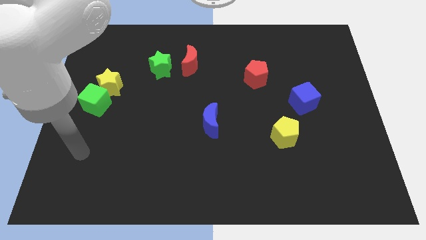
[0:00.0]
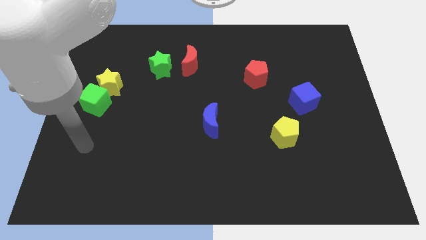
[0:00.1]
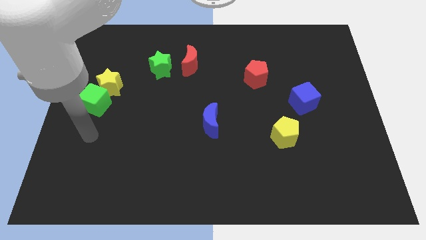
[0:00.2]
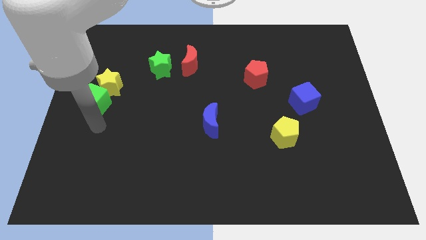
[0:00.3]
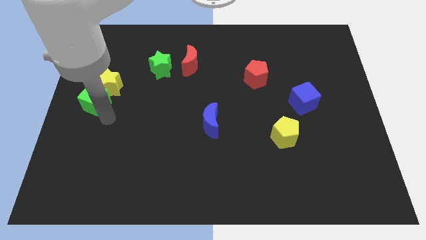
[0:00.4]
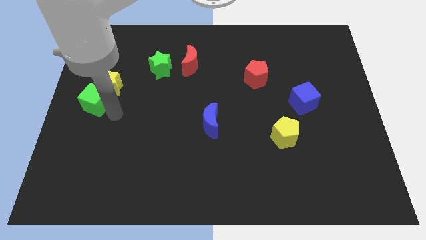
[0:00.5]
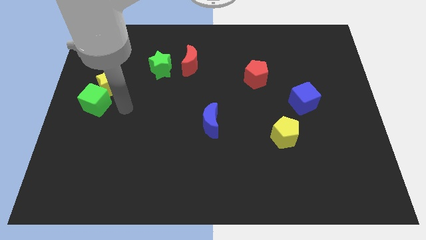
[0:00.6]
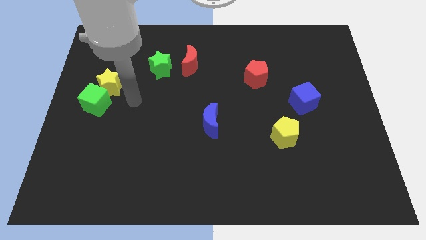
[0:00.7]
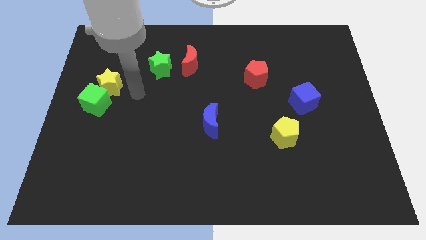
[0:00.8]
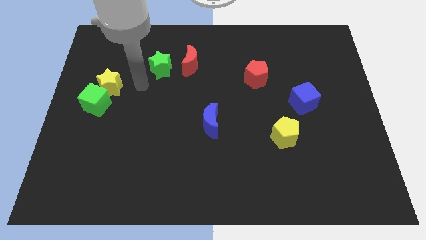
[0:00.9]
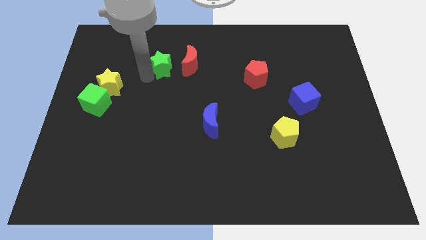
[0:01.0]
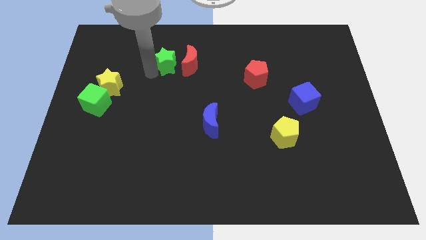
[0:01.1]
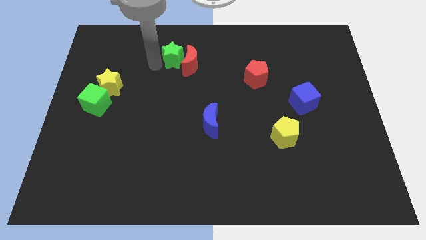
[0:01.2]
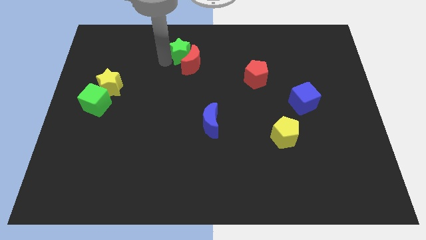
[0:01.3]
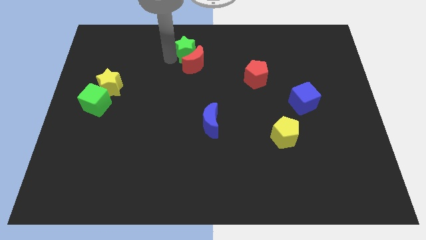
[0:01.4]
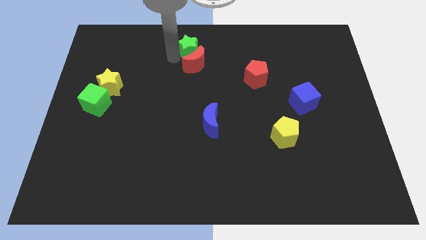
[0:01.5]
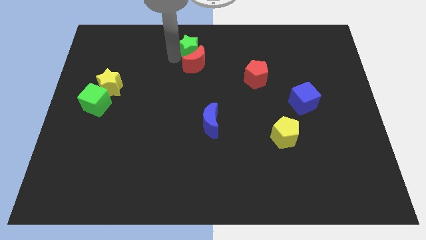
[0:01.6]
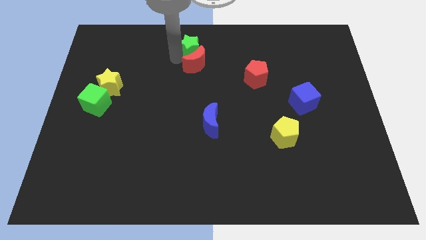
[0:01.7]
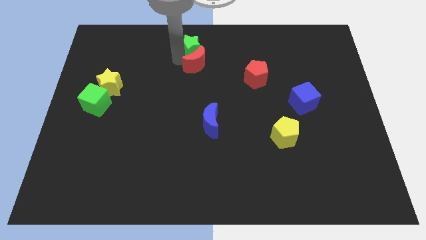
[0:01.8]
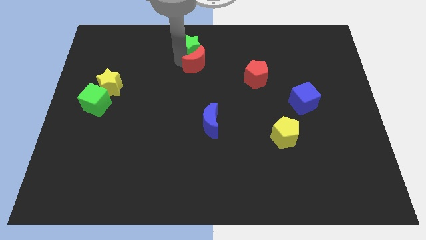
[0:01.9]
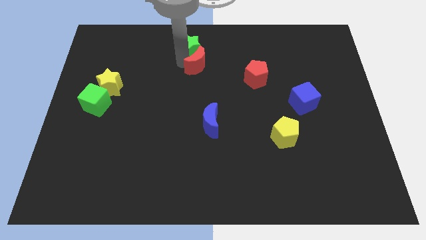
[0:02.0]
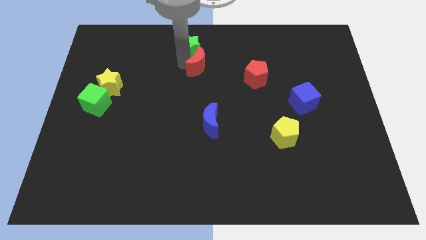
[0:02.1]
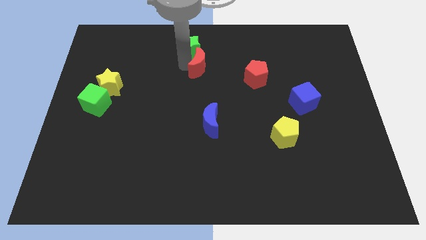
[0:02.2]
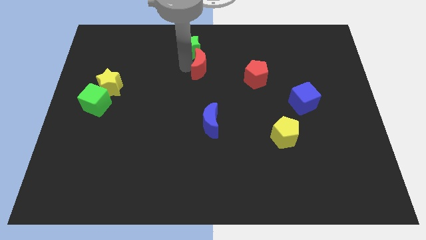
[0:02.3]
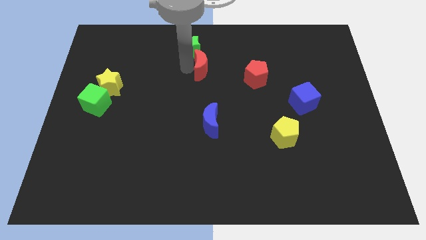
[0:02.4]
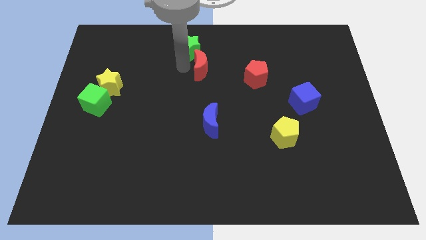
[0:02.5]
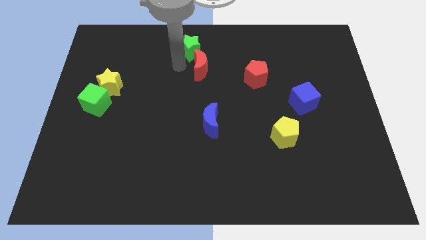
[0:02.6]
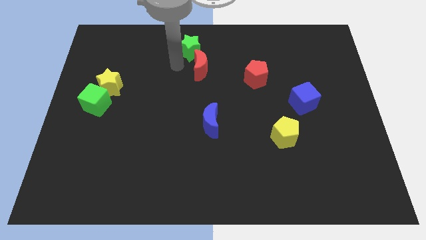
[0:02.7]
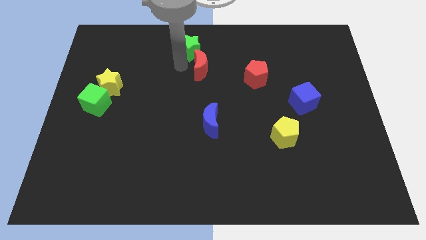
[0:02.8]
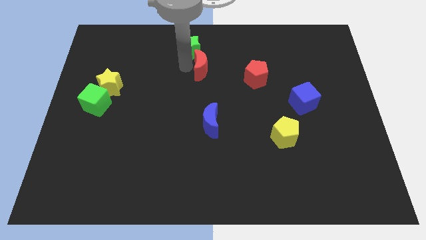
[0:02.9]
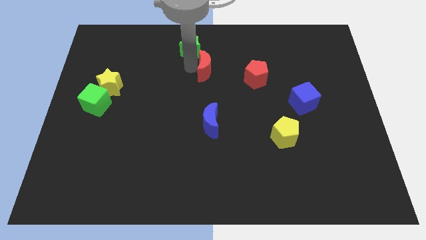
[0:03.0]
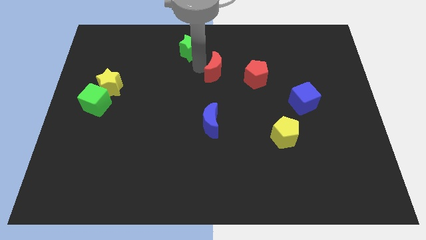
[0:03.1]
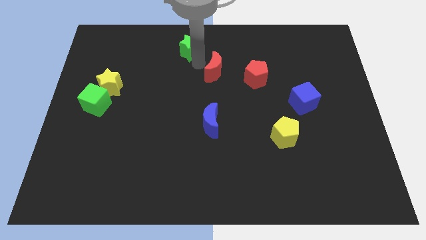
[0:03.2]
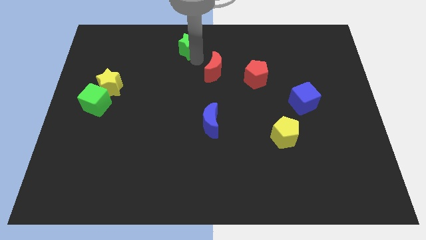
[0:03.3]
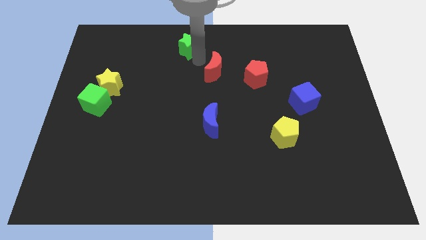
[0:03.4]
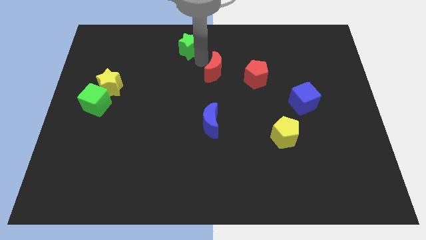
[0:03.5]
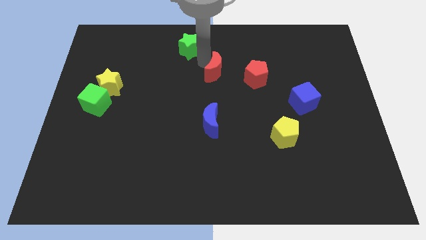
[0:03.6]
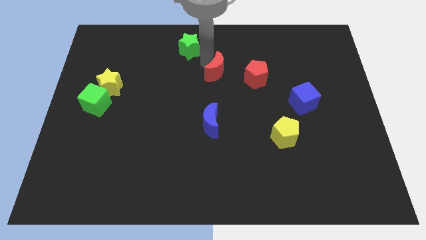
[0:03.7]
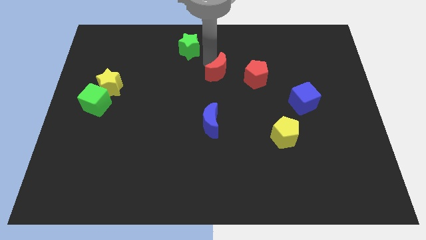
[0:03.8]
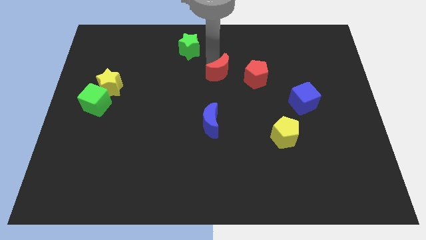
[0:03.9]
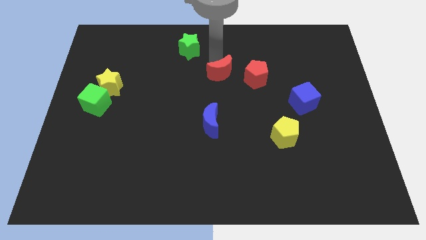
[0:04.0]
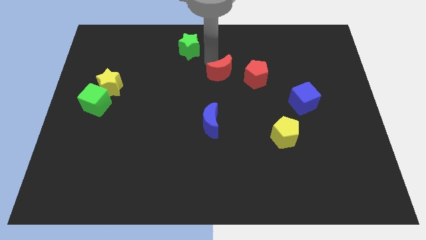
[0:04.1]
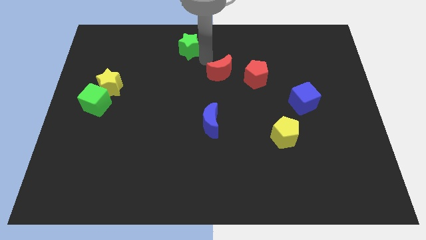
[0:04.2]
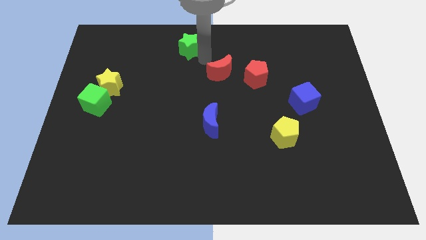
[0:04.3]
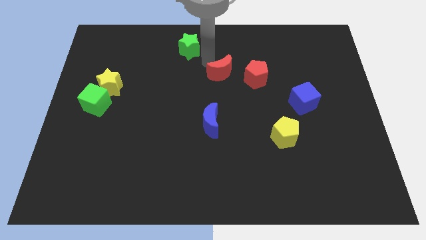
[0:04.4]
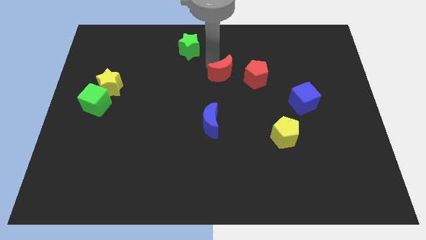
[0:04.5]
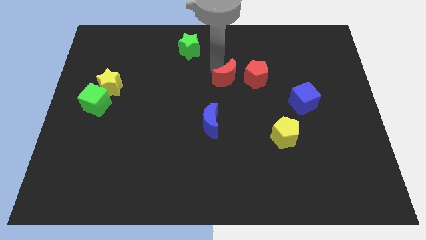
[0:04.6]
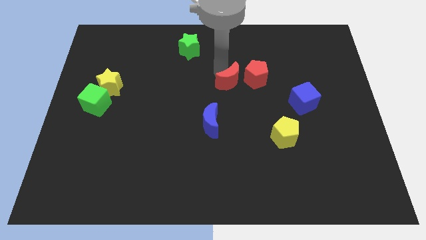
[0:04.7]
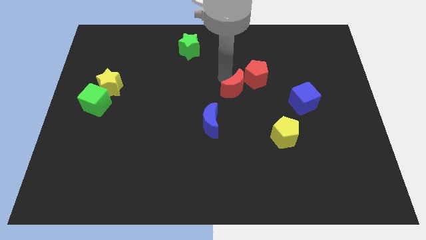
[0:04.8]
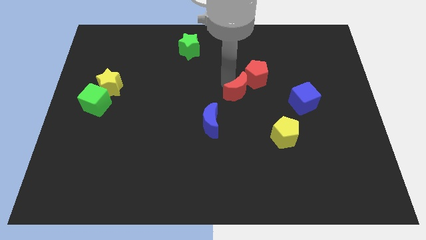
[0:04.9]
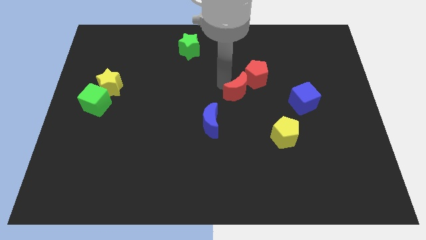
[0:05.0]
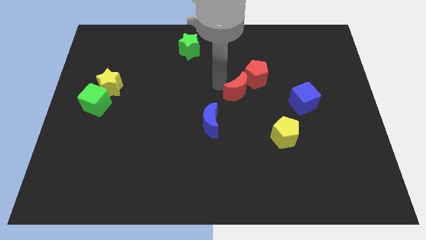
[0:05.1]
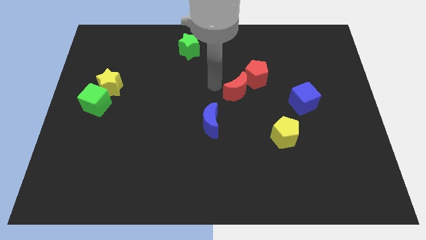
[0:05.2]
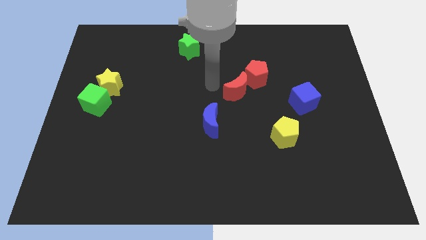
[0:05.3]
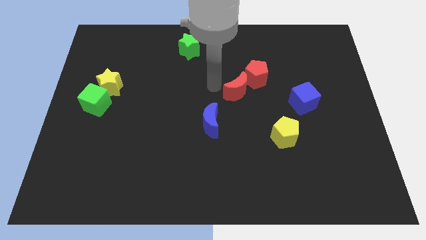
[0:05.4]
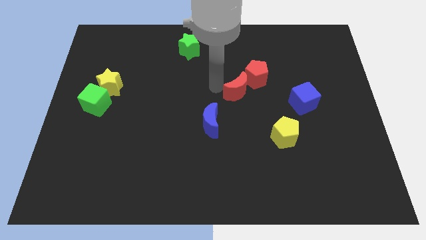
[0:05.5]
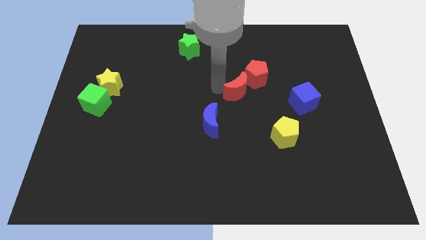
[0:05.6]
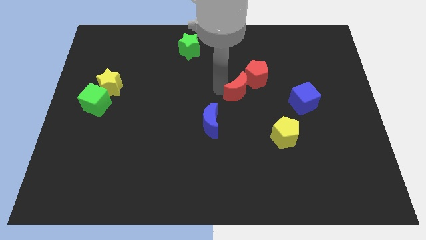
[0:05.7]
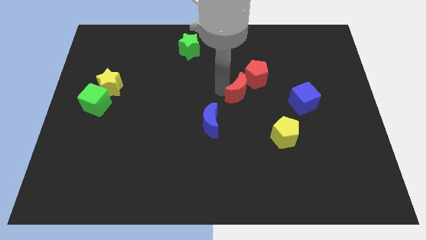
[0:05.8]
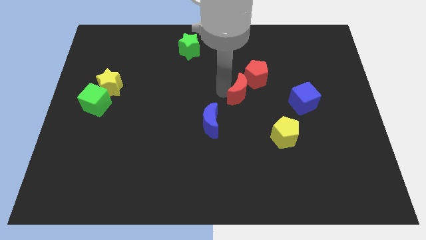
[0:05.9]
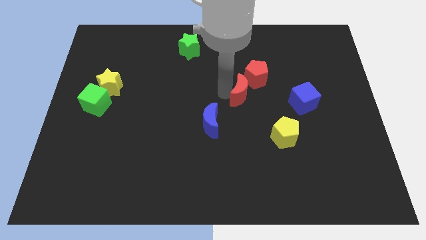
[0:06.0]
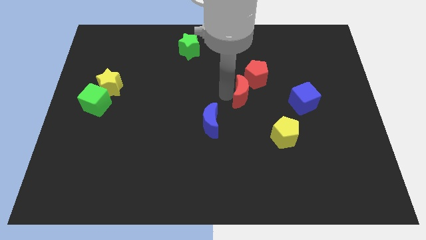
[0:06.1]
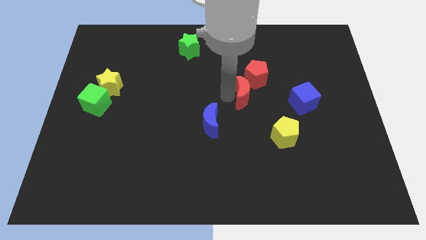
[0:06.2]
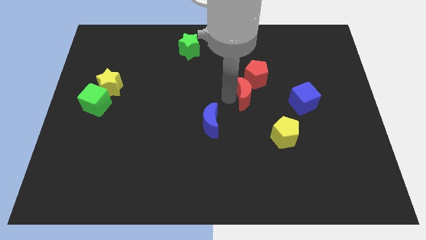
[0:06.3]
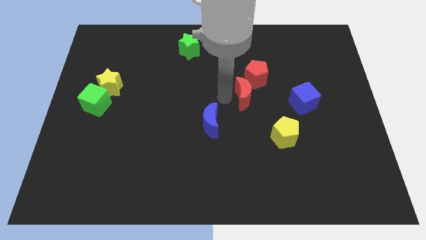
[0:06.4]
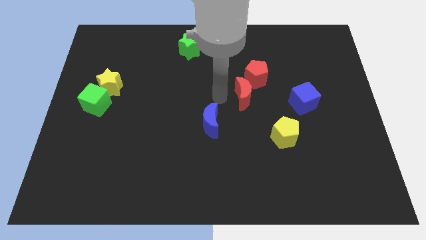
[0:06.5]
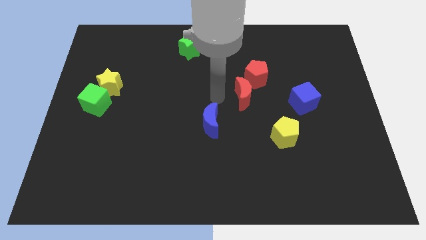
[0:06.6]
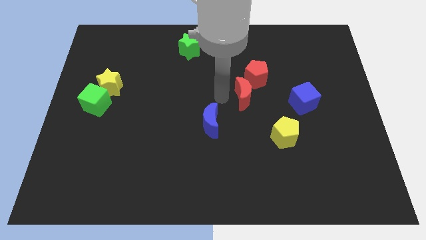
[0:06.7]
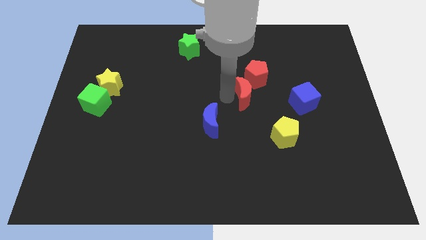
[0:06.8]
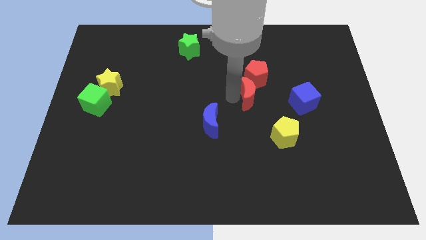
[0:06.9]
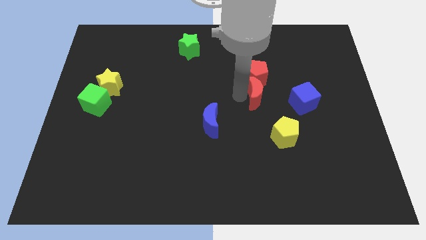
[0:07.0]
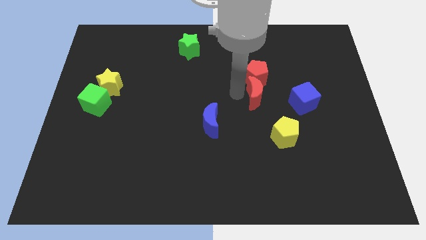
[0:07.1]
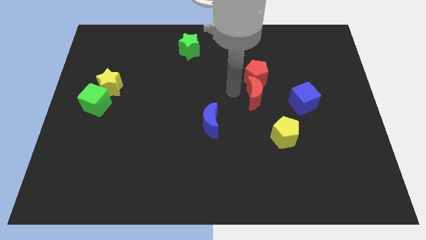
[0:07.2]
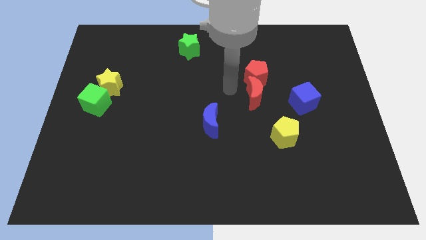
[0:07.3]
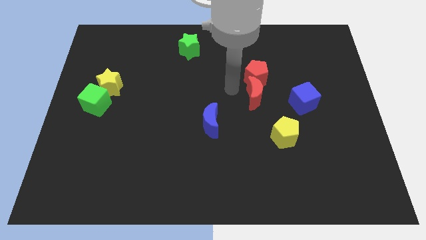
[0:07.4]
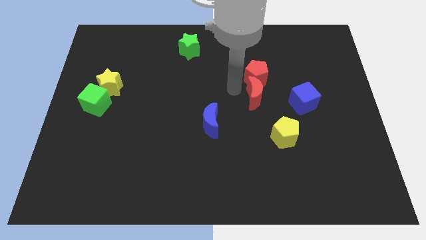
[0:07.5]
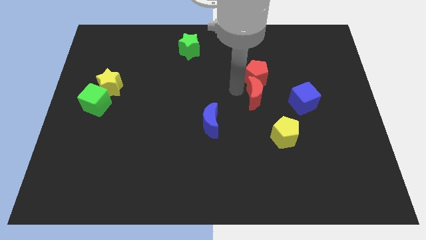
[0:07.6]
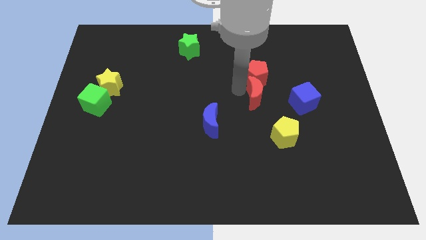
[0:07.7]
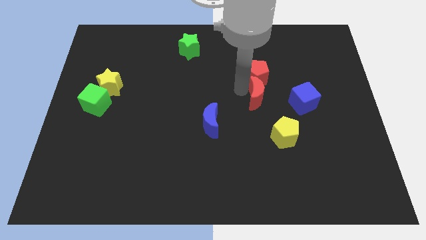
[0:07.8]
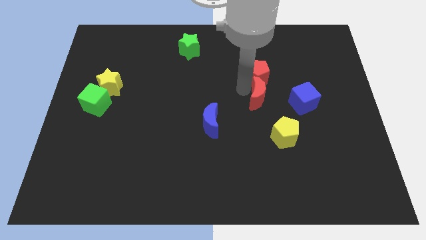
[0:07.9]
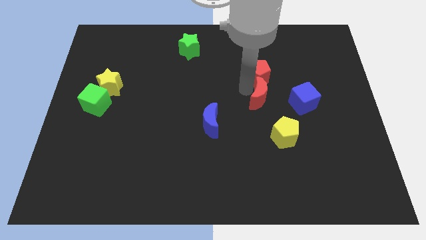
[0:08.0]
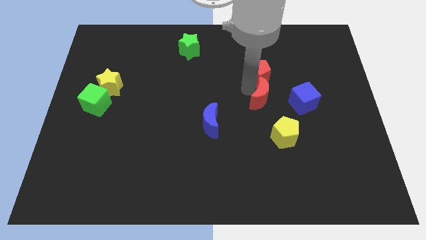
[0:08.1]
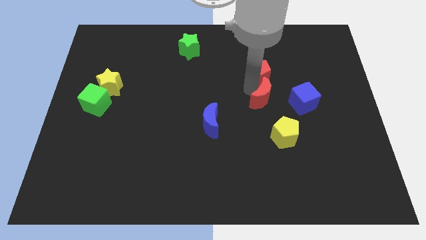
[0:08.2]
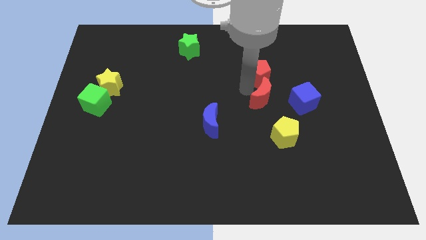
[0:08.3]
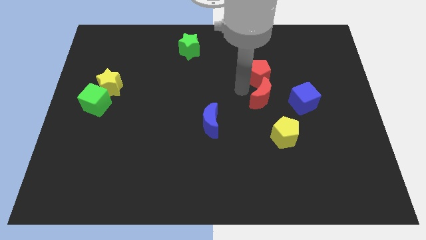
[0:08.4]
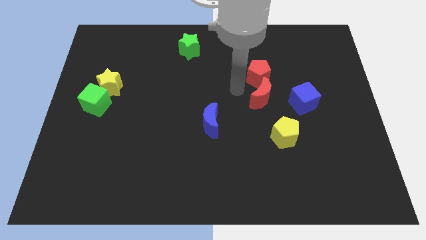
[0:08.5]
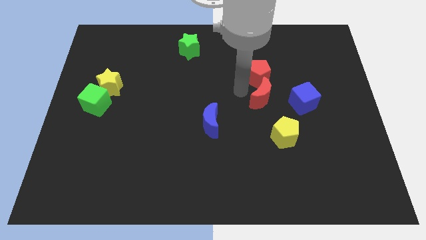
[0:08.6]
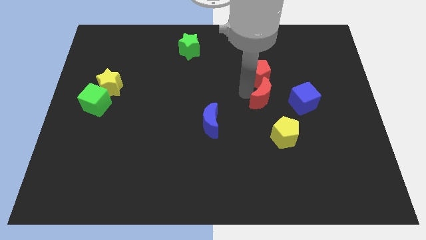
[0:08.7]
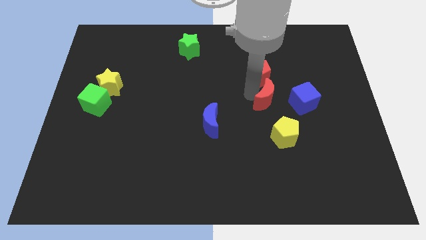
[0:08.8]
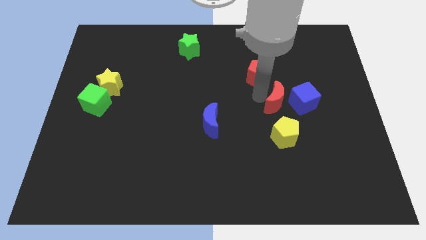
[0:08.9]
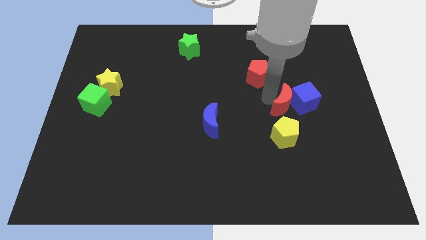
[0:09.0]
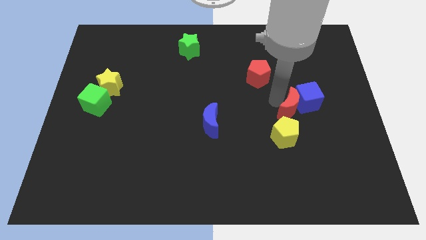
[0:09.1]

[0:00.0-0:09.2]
put the red moon to the top right side of the yellow pentagon
